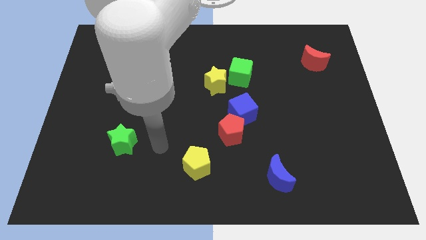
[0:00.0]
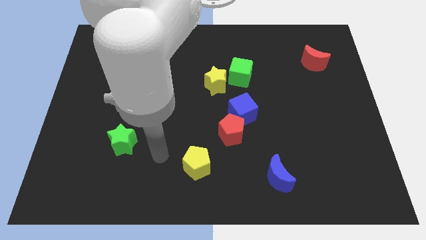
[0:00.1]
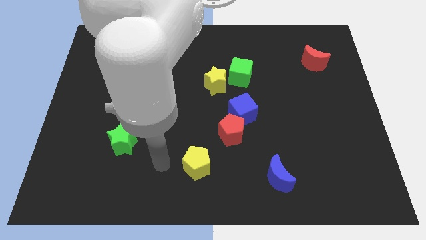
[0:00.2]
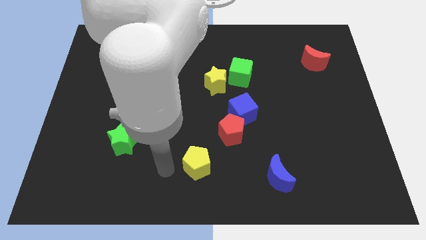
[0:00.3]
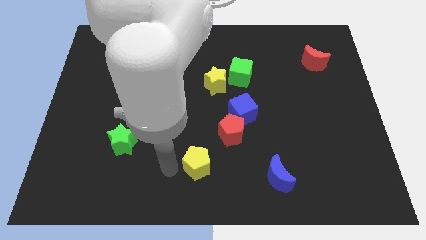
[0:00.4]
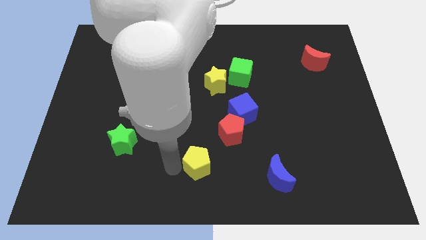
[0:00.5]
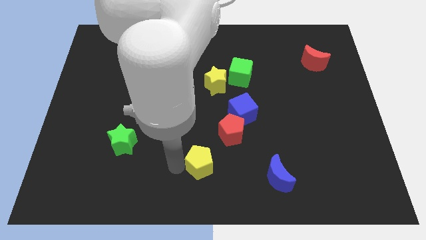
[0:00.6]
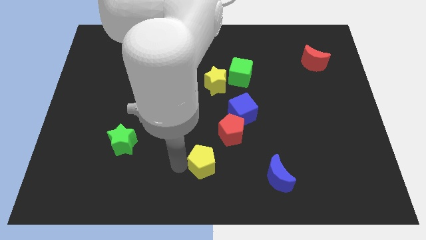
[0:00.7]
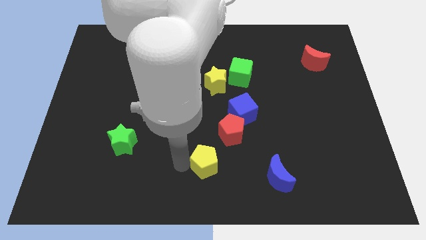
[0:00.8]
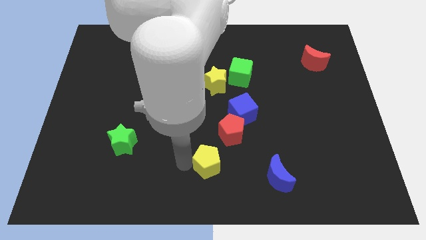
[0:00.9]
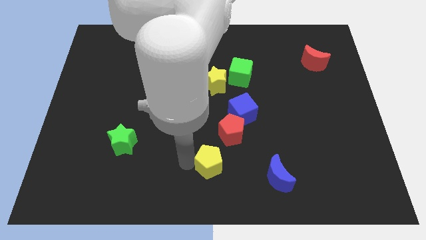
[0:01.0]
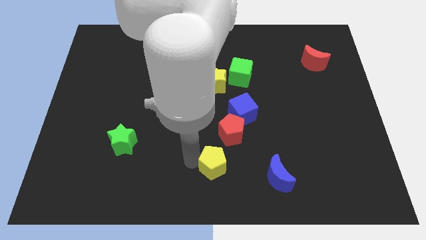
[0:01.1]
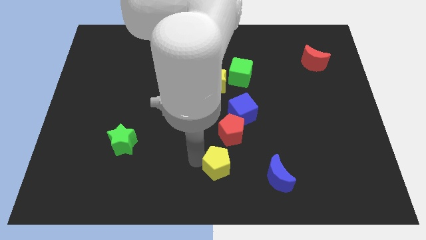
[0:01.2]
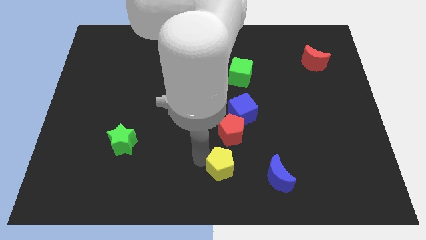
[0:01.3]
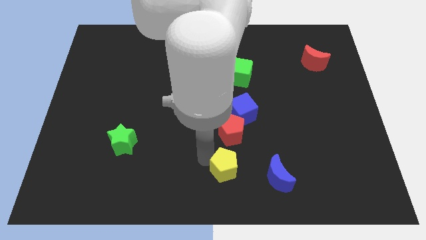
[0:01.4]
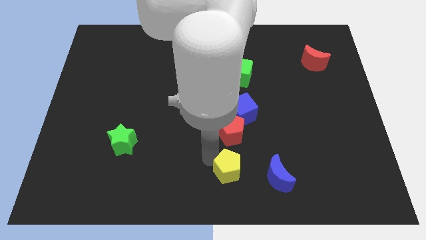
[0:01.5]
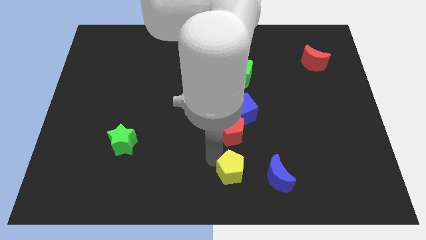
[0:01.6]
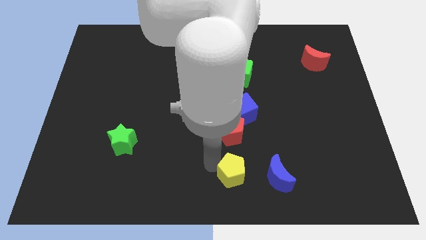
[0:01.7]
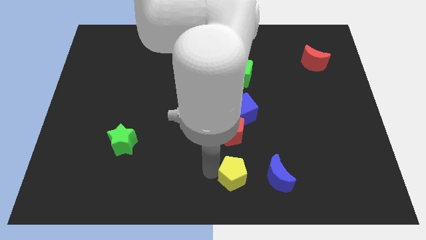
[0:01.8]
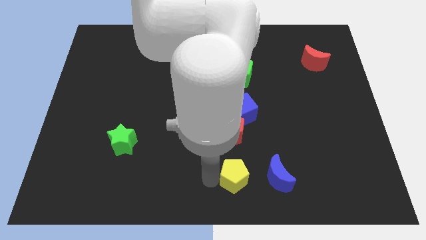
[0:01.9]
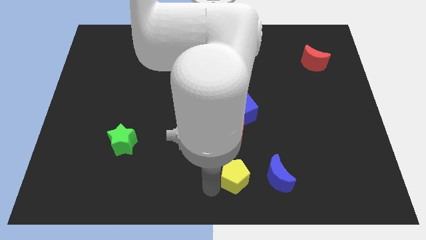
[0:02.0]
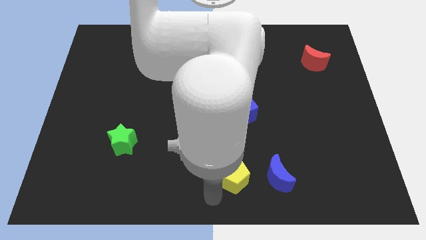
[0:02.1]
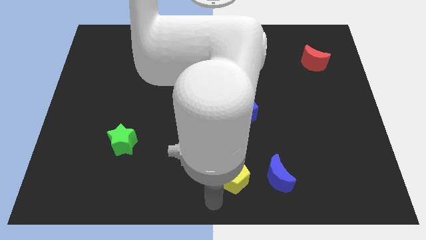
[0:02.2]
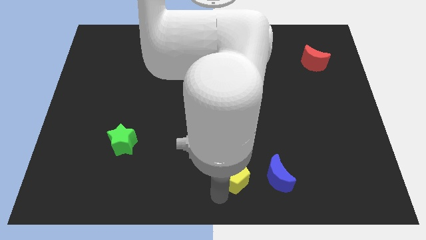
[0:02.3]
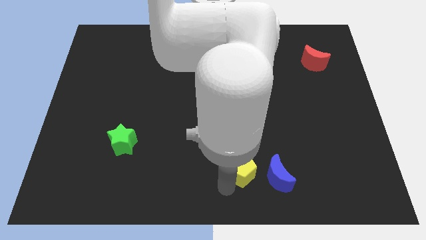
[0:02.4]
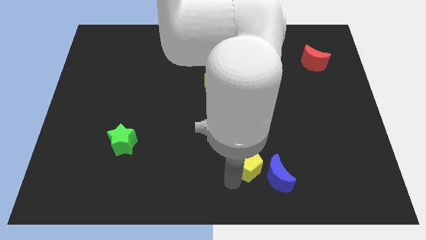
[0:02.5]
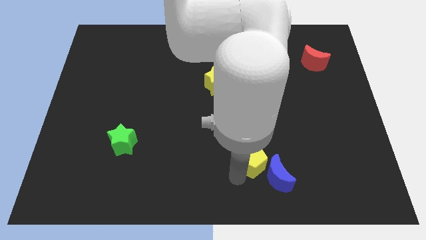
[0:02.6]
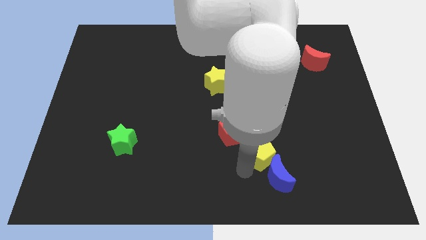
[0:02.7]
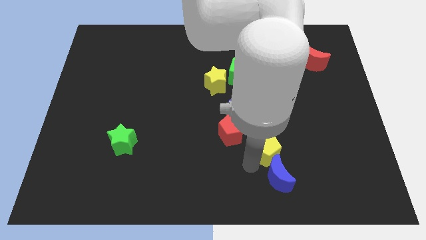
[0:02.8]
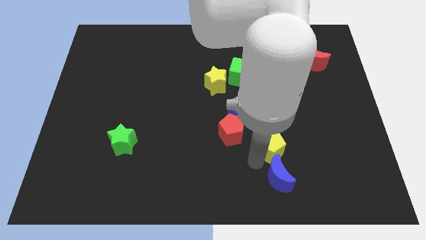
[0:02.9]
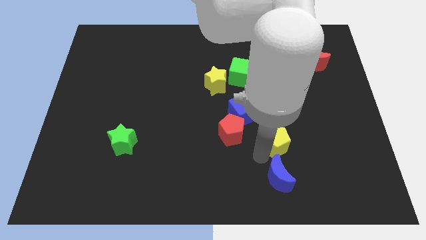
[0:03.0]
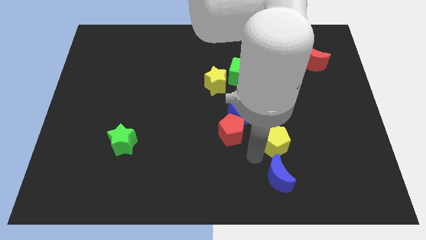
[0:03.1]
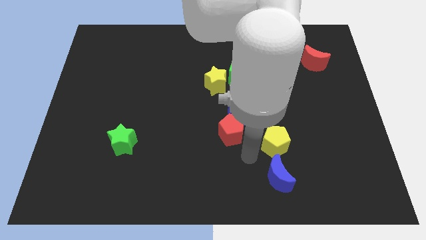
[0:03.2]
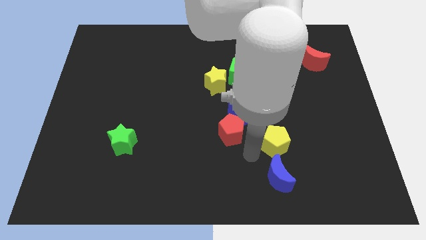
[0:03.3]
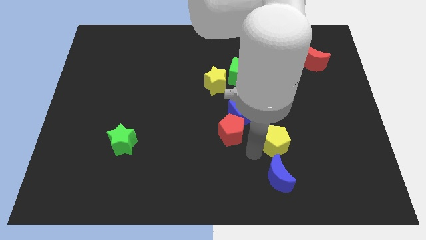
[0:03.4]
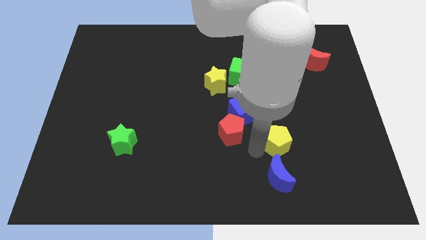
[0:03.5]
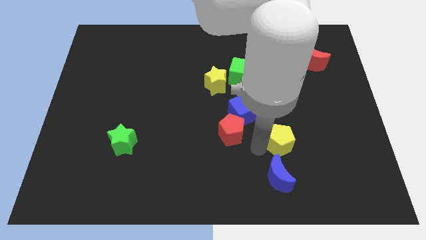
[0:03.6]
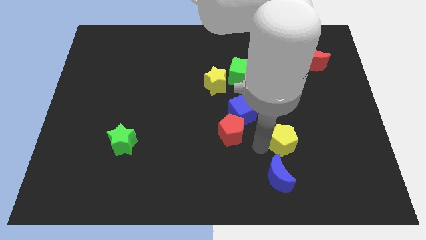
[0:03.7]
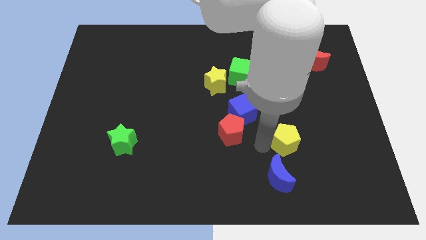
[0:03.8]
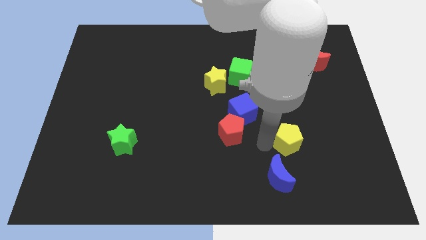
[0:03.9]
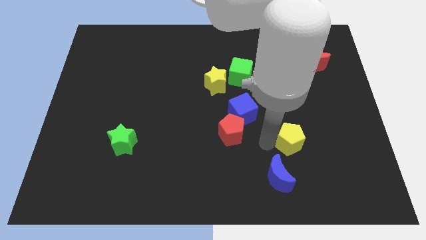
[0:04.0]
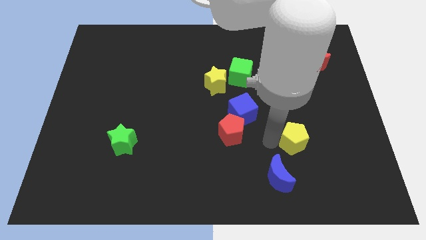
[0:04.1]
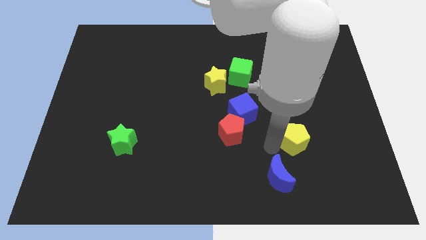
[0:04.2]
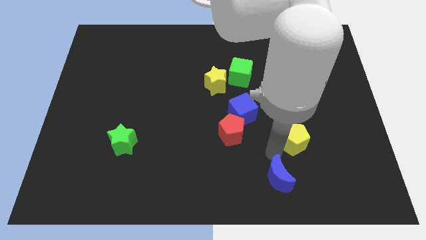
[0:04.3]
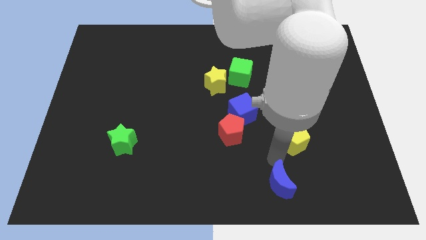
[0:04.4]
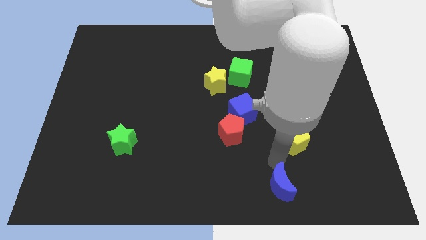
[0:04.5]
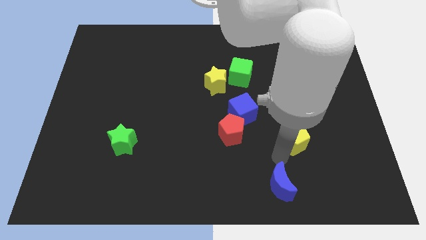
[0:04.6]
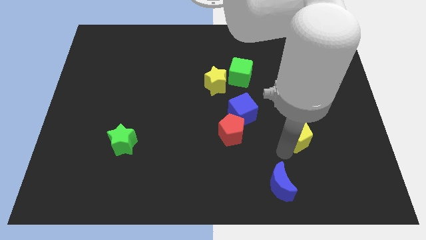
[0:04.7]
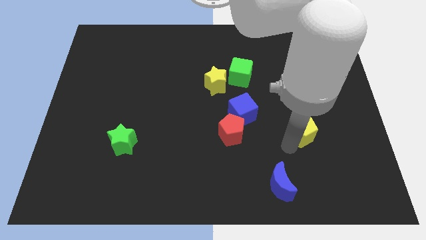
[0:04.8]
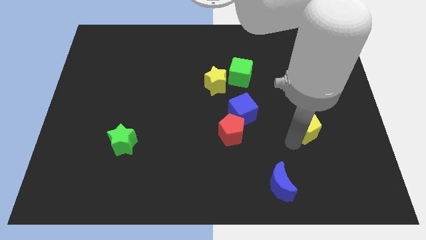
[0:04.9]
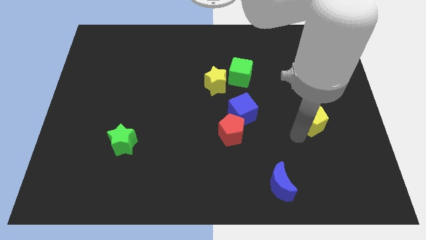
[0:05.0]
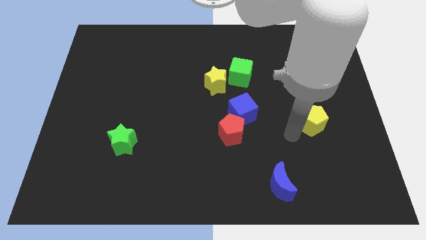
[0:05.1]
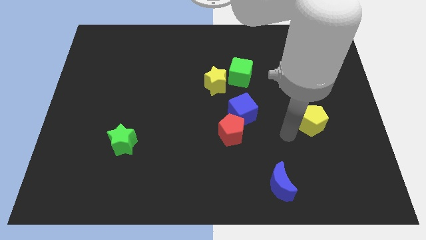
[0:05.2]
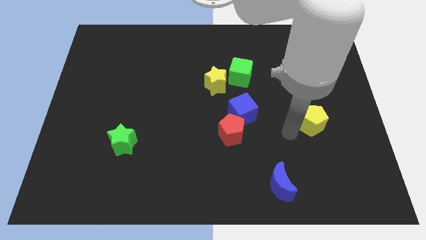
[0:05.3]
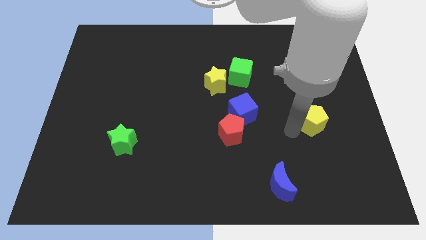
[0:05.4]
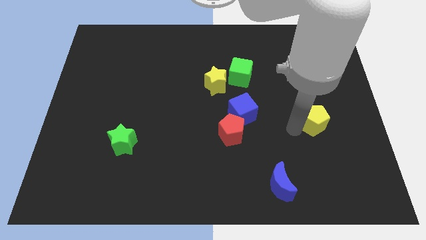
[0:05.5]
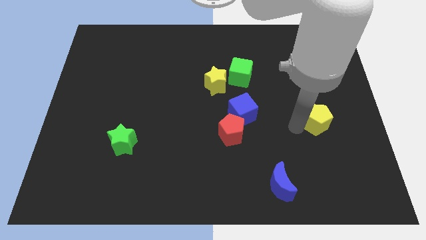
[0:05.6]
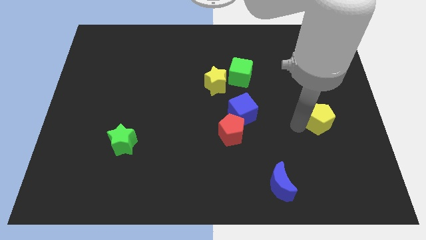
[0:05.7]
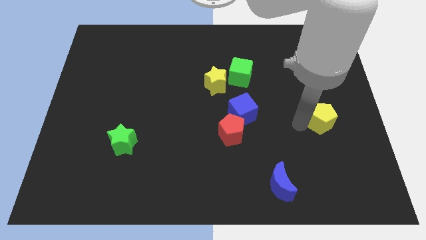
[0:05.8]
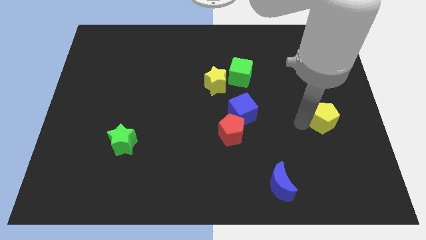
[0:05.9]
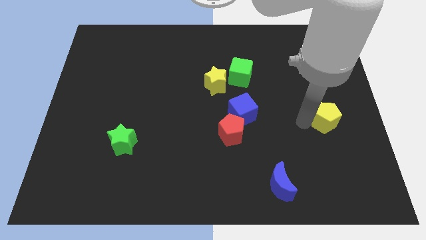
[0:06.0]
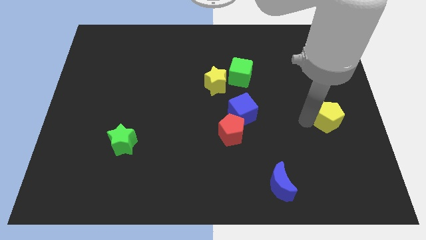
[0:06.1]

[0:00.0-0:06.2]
put the yellow pentagon to the center right
